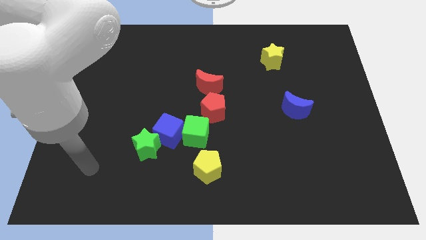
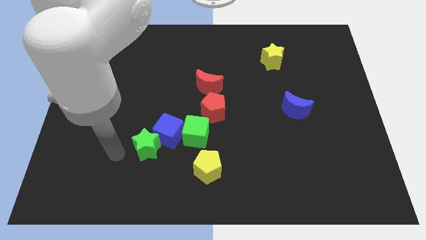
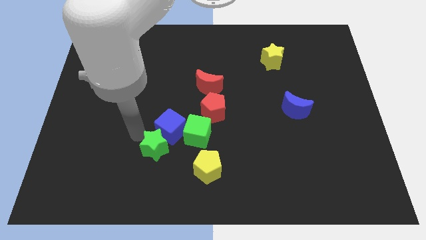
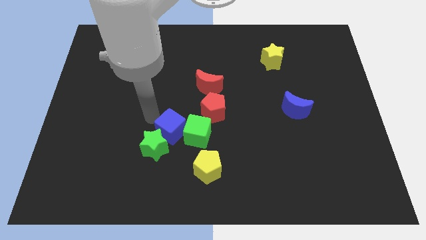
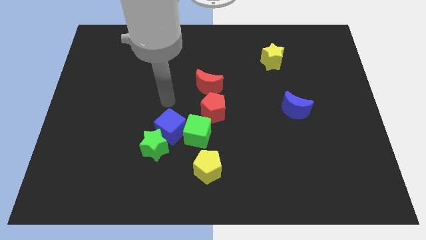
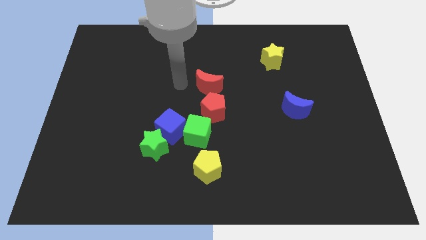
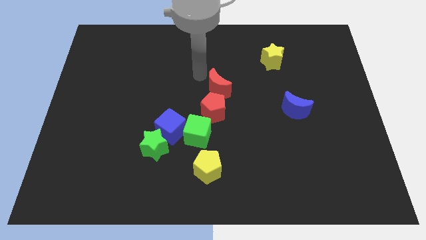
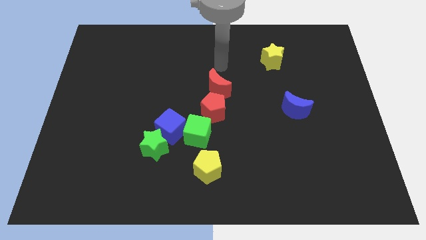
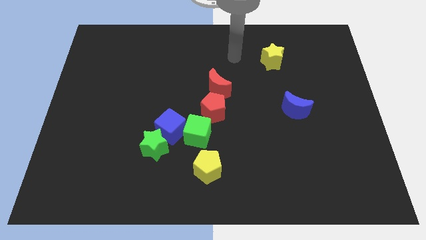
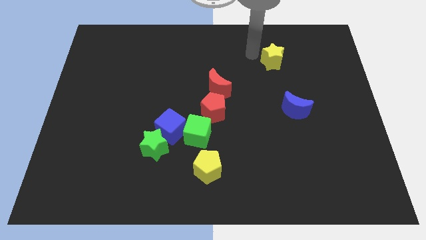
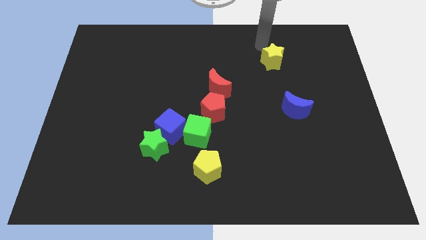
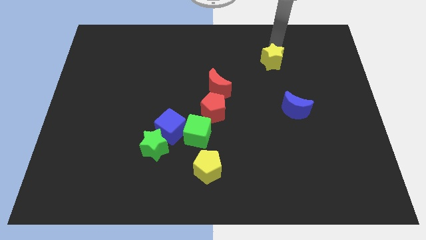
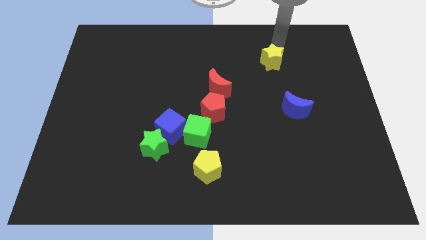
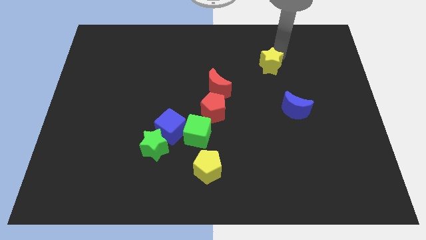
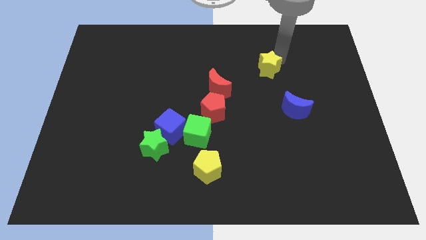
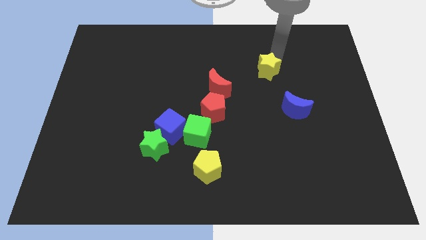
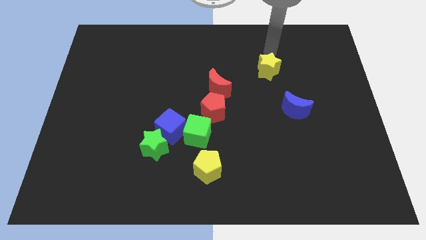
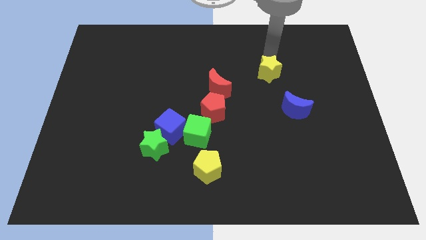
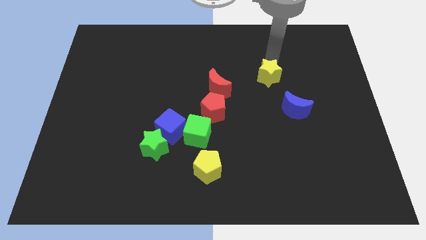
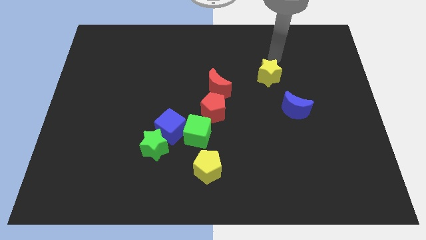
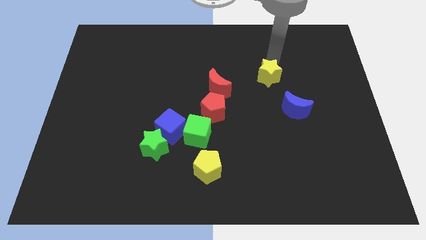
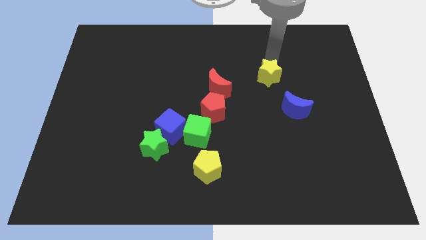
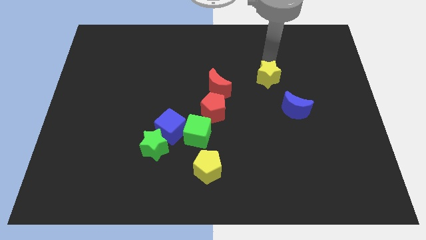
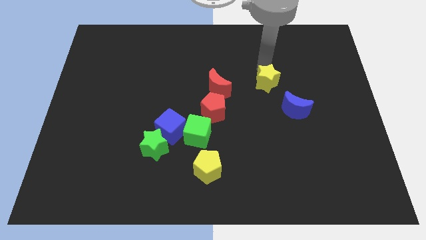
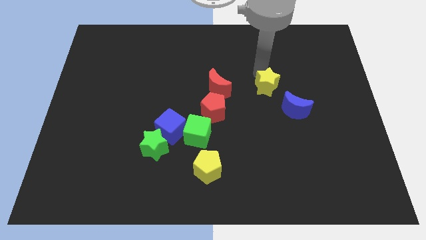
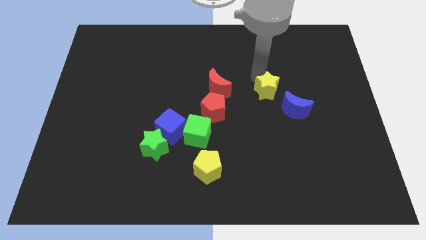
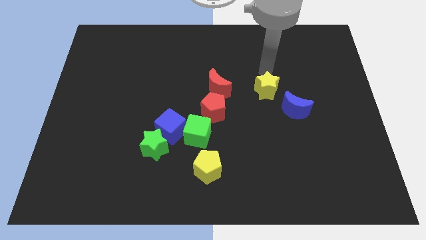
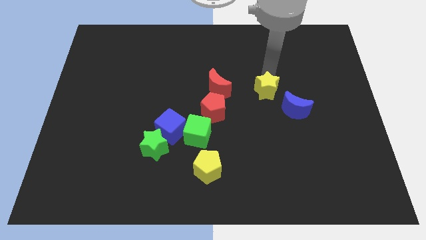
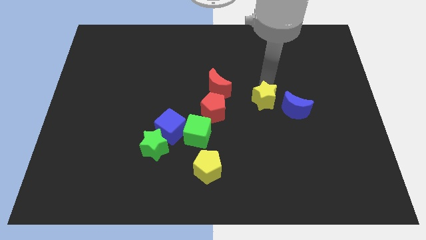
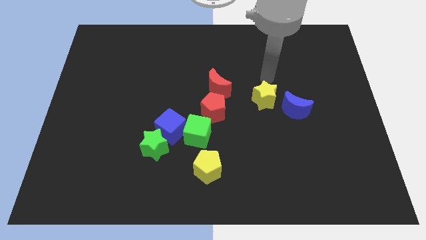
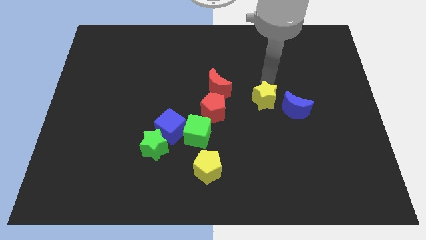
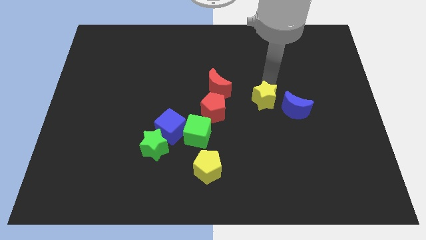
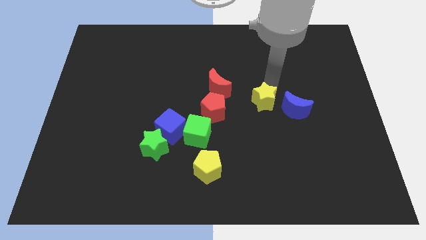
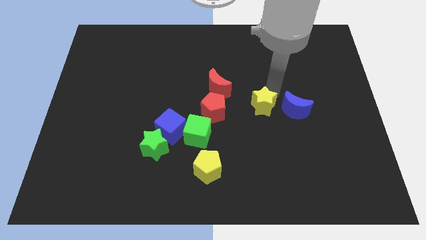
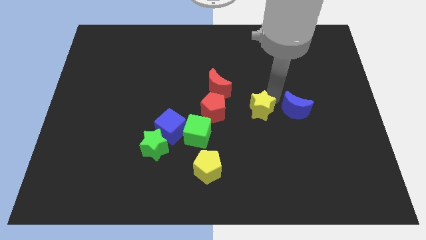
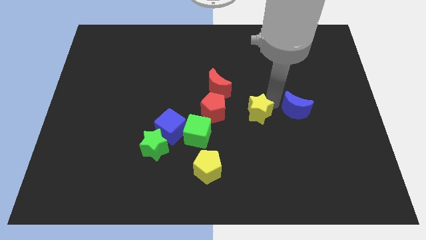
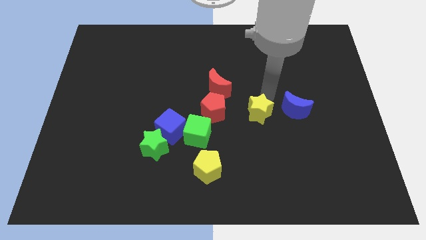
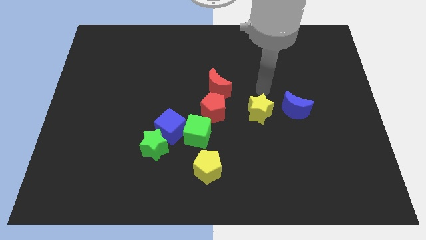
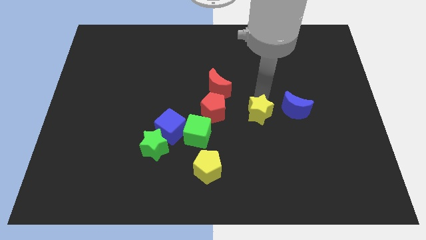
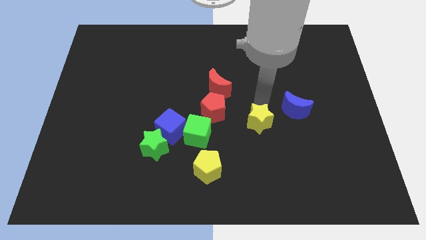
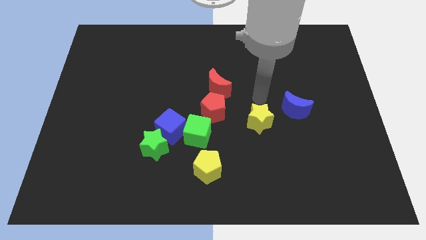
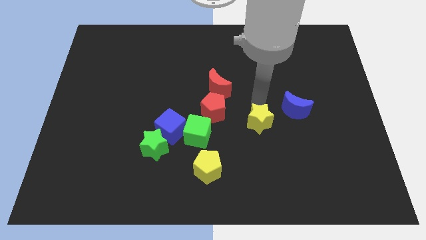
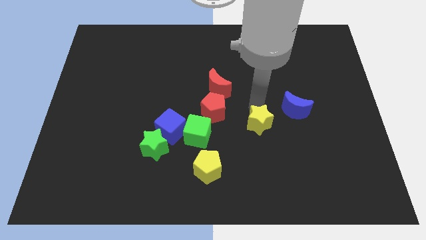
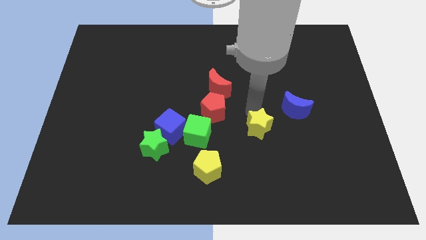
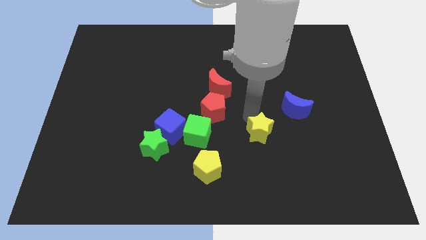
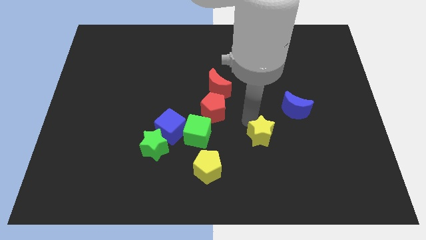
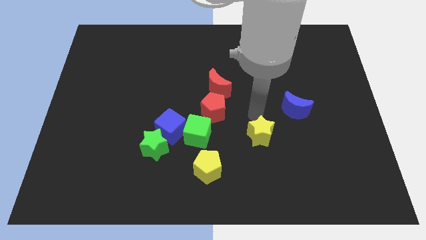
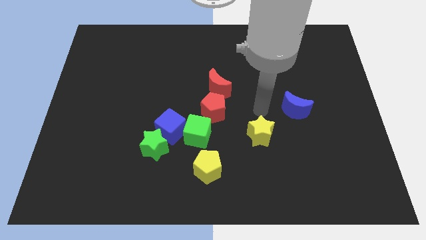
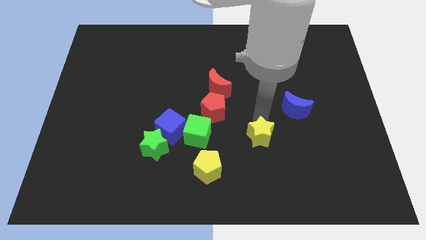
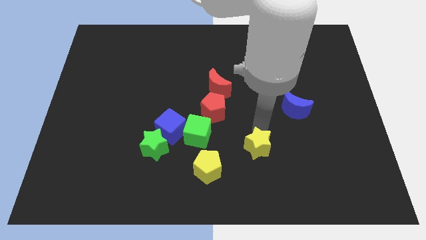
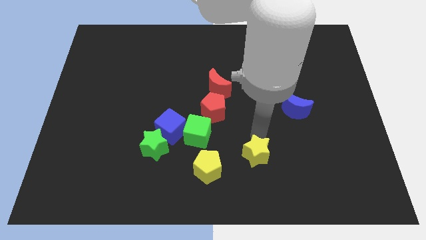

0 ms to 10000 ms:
slide the yellow star to the right side of the yellow pentagon

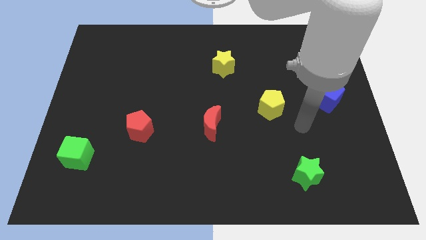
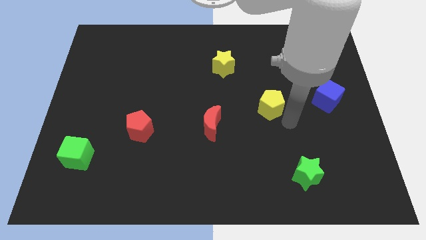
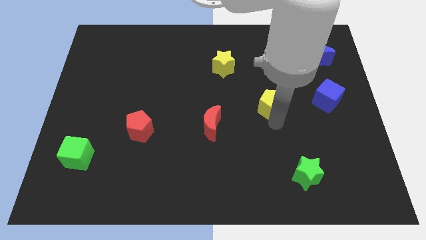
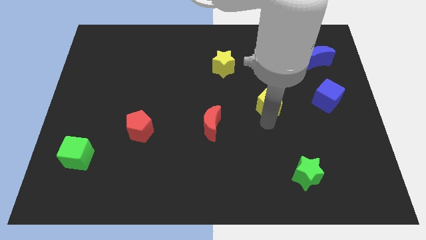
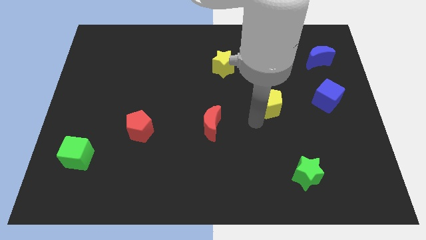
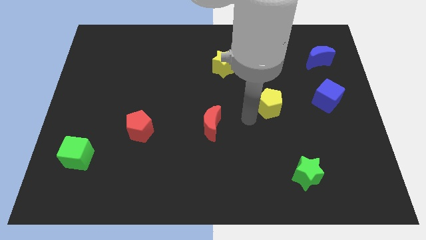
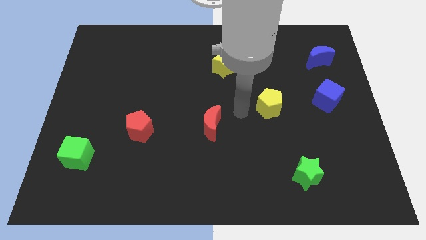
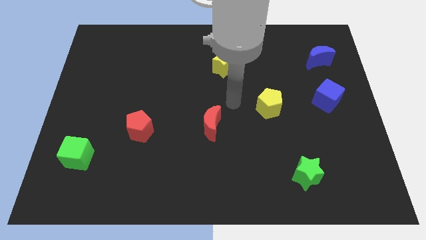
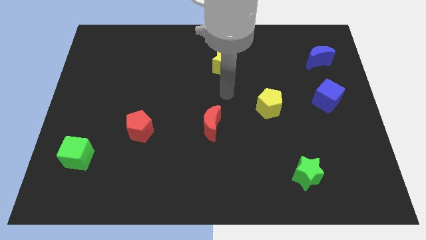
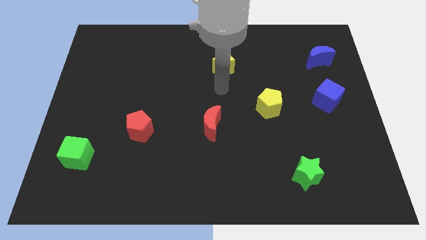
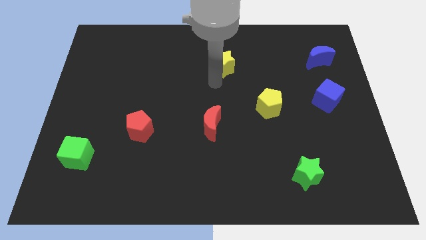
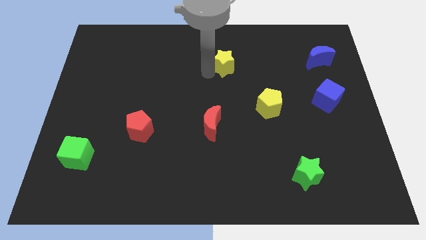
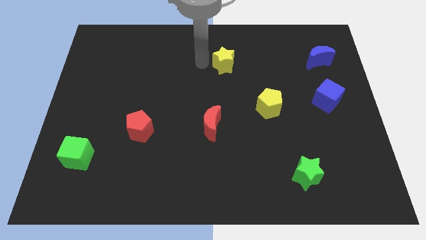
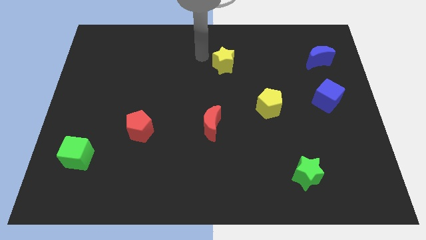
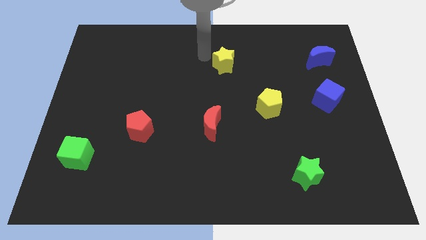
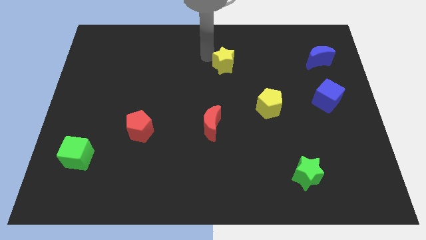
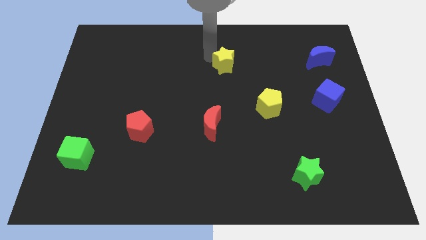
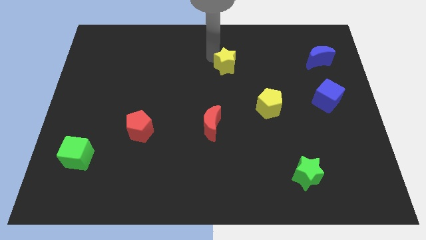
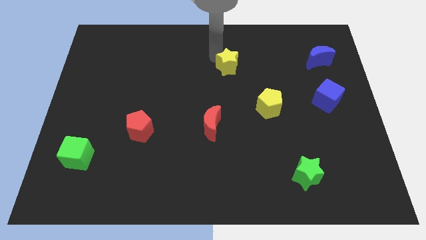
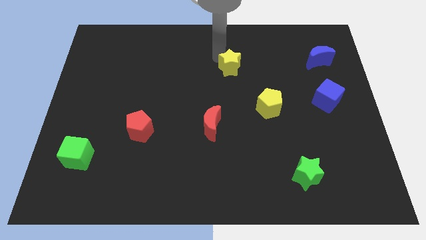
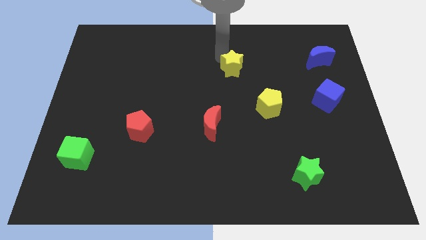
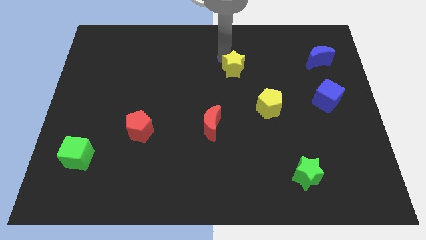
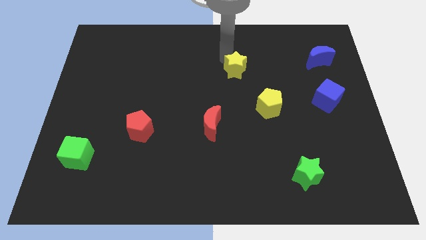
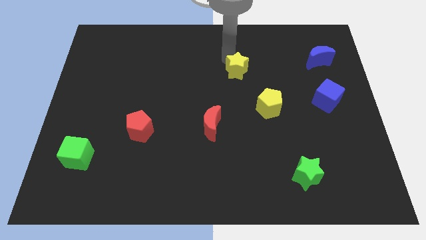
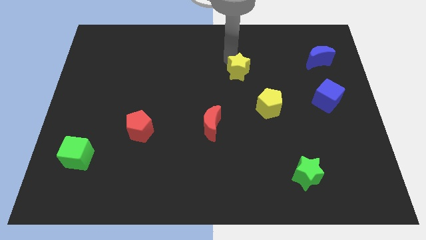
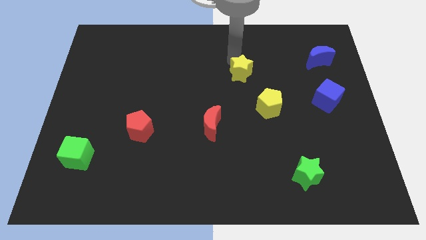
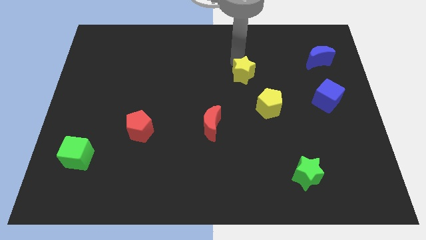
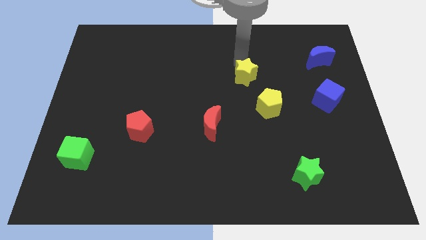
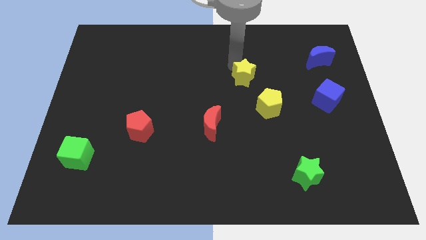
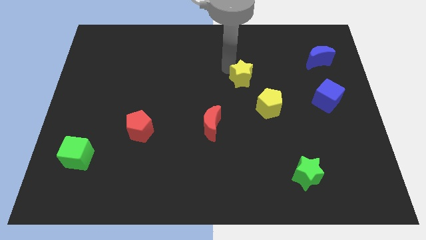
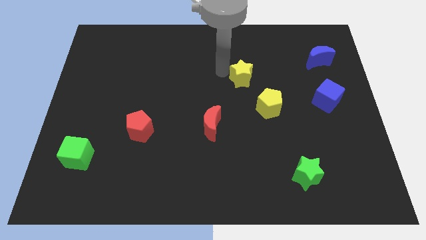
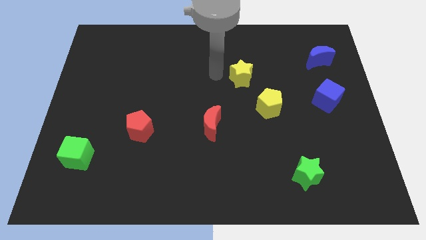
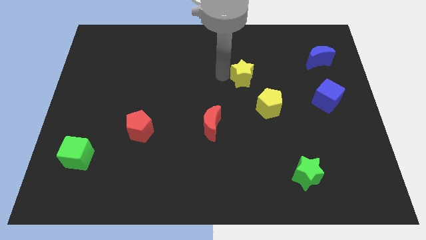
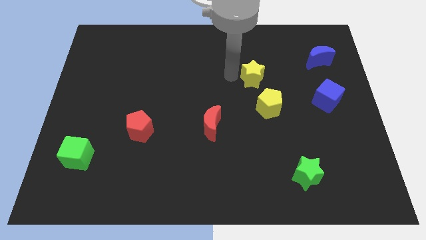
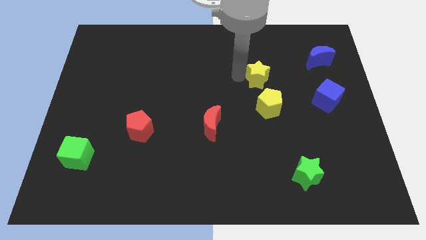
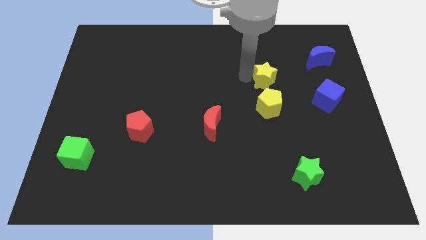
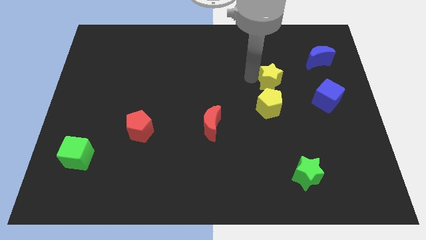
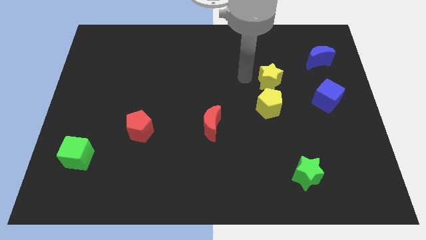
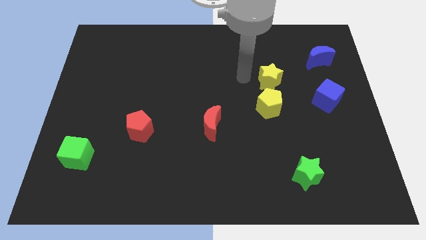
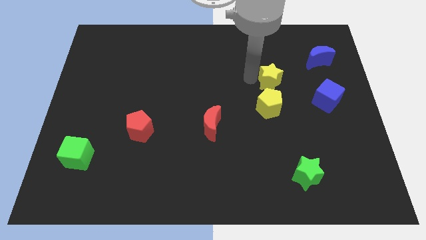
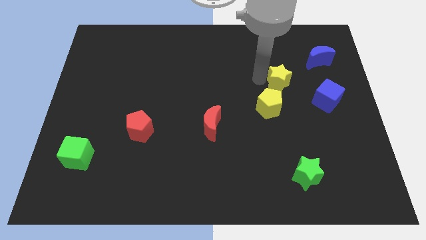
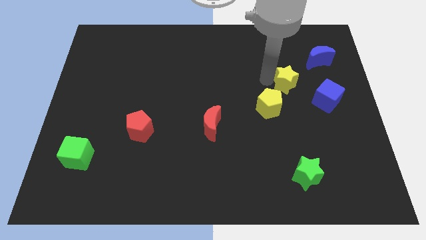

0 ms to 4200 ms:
put the yellow star diagonally up and to the left of the blue cube
